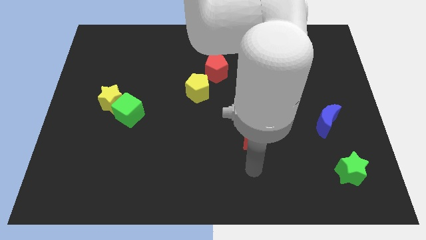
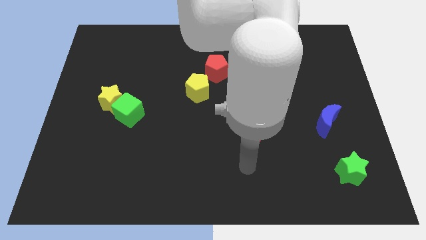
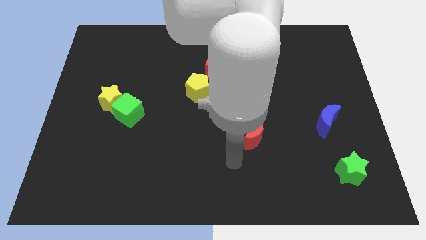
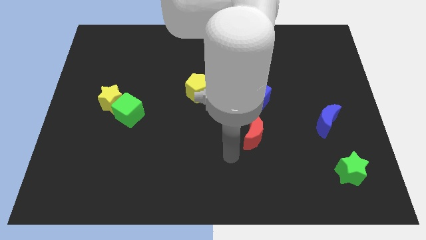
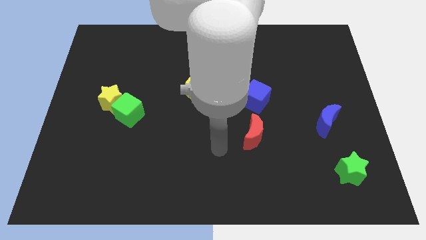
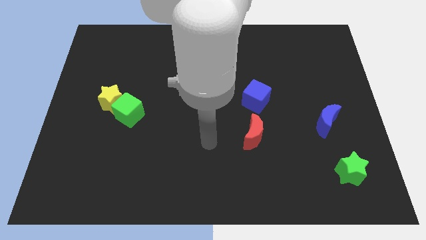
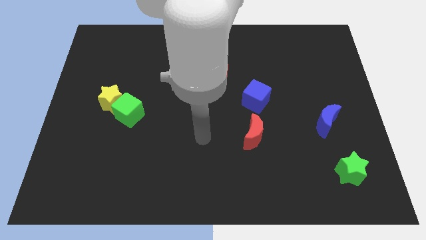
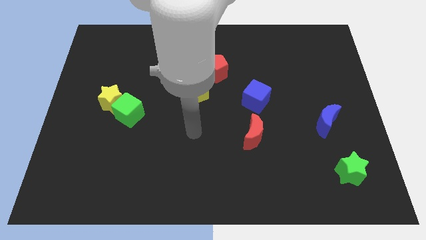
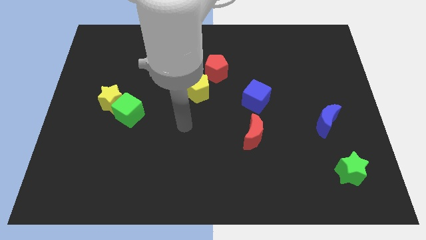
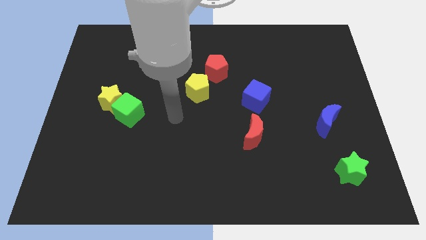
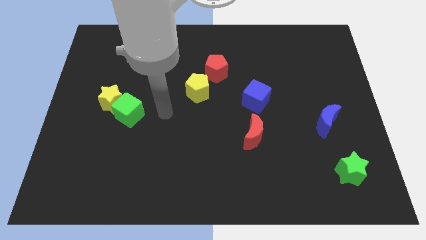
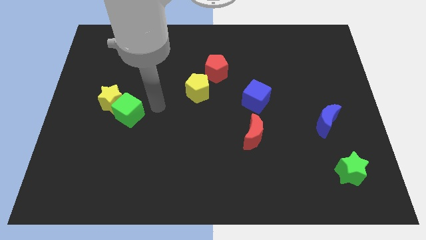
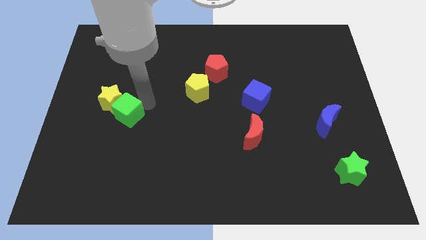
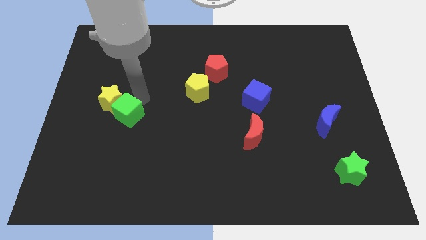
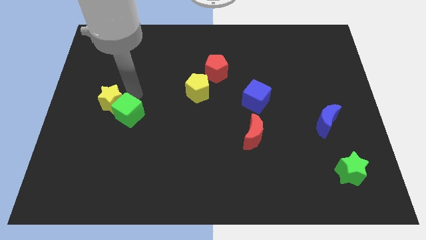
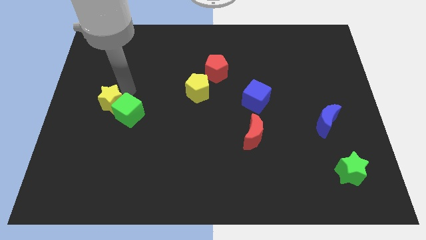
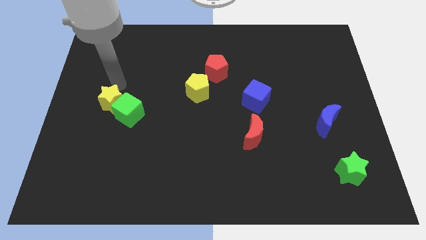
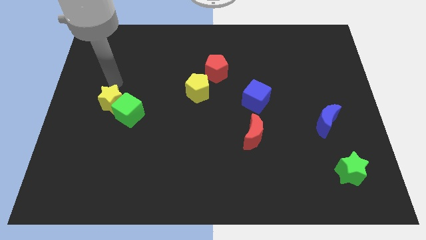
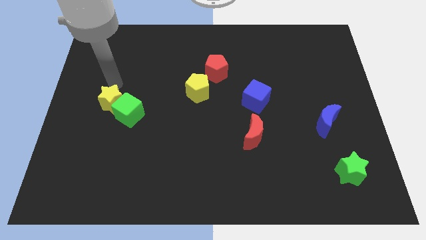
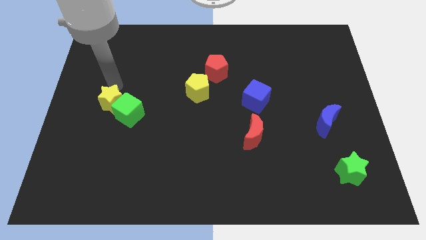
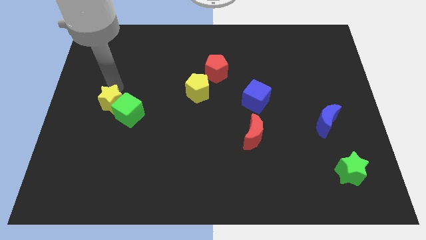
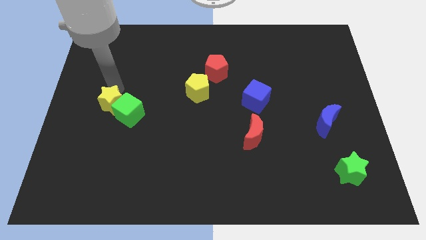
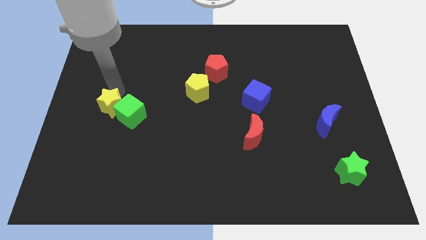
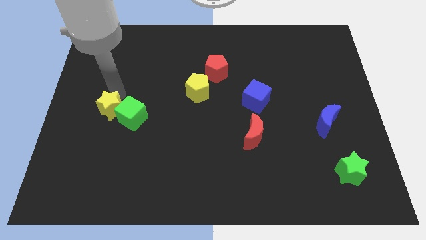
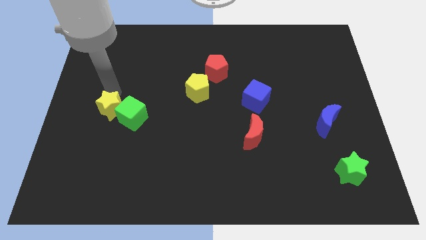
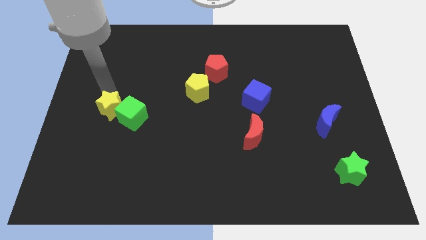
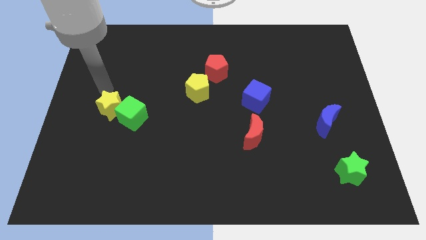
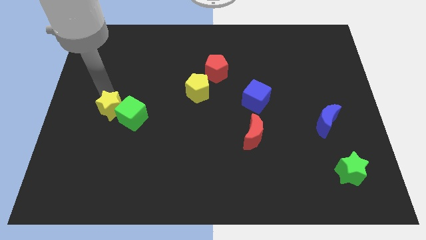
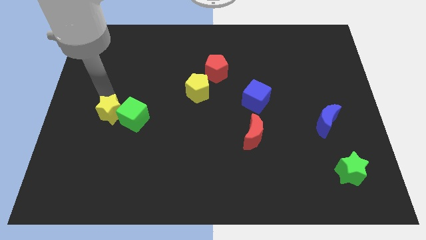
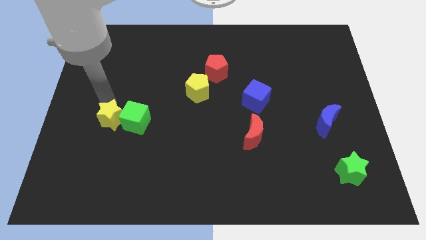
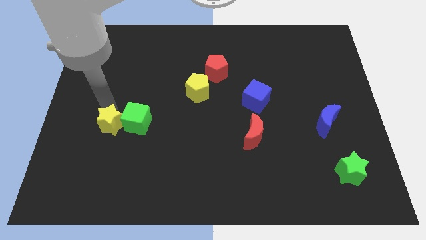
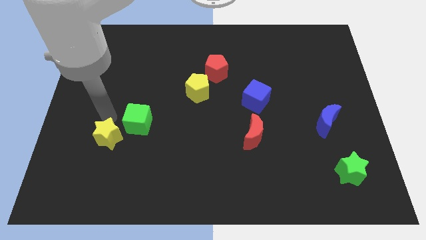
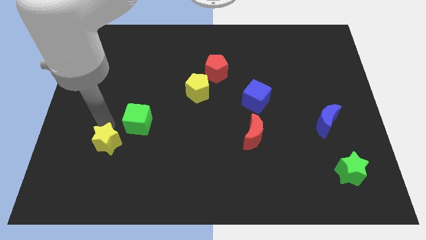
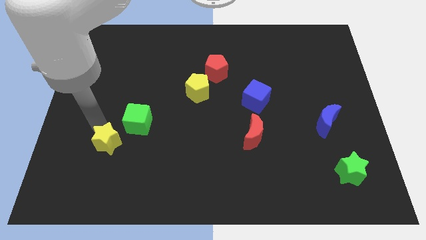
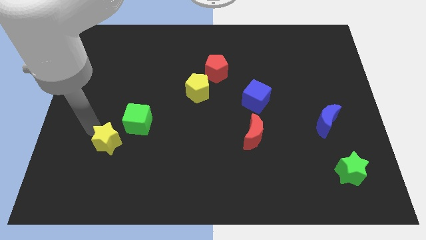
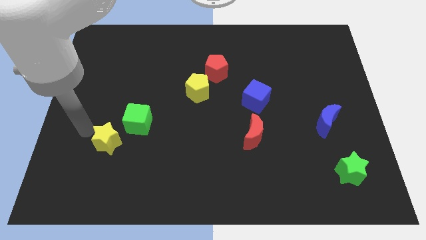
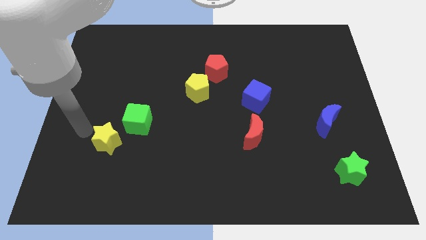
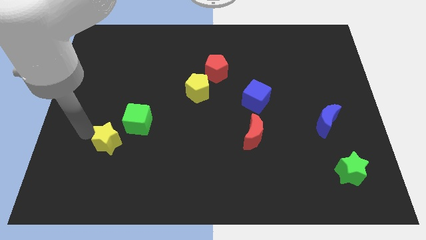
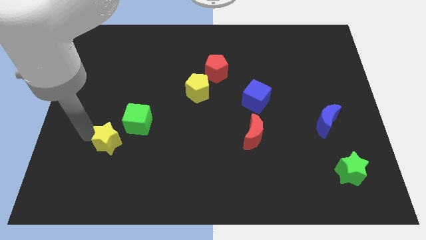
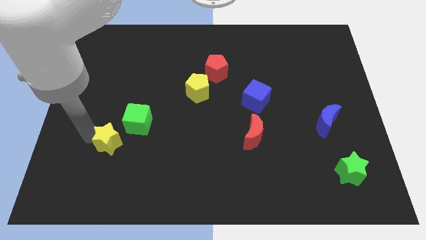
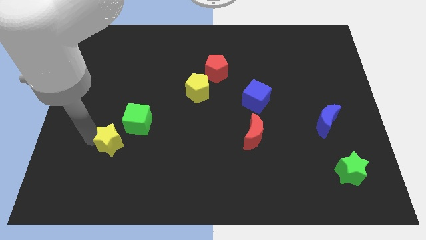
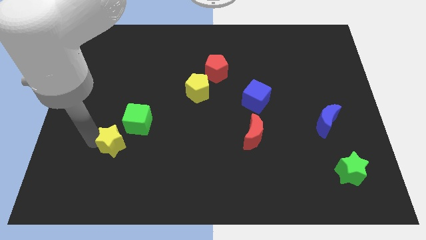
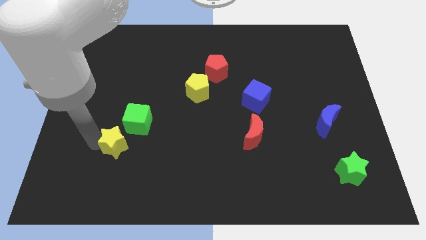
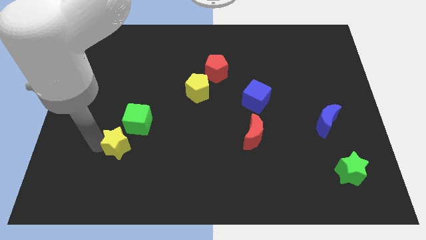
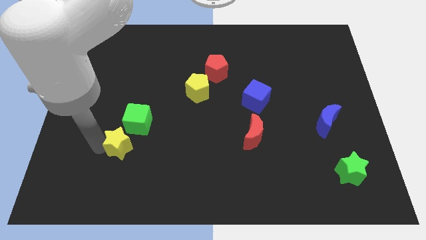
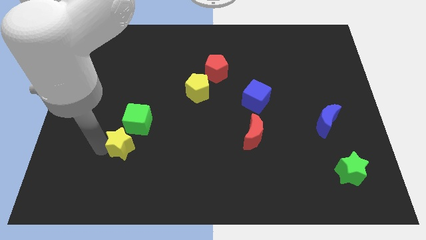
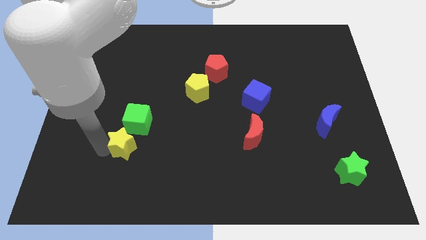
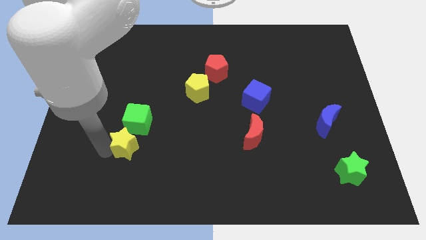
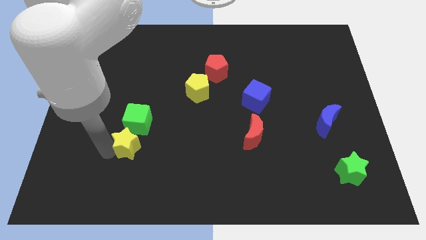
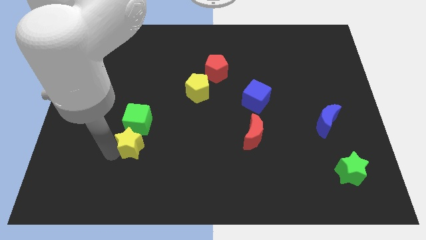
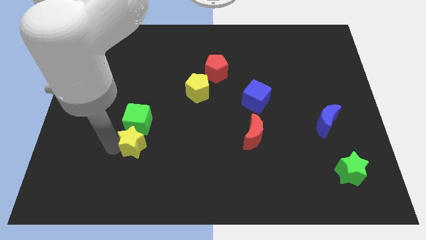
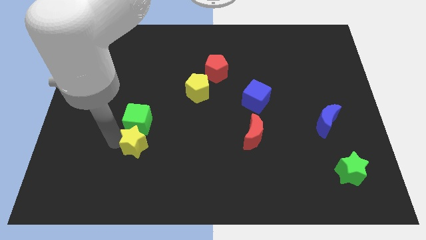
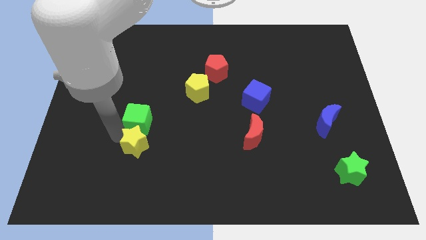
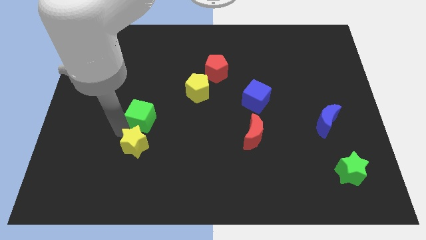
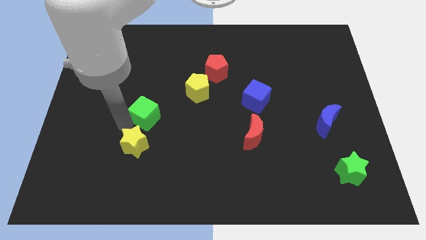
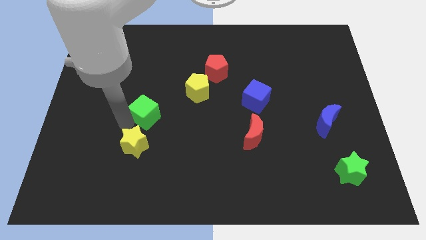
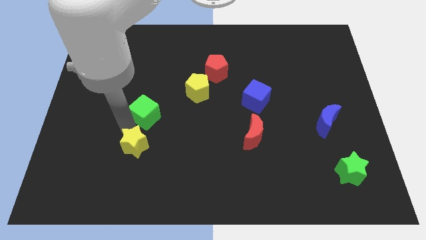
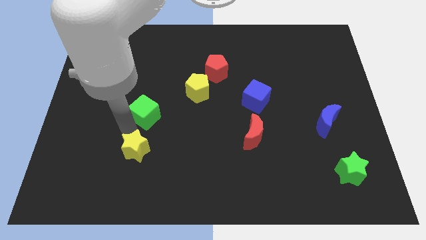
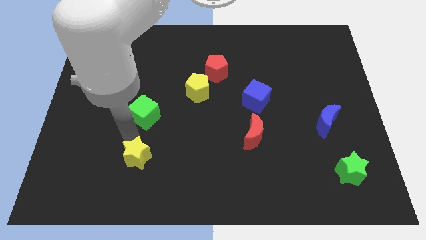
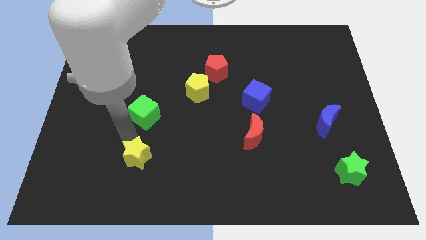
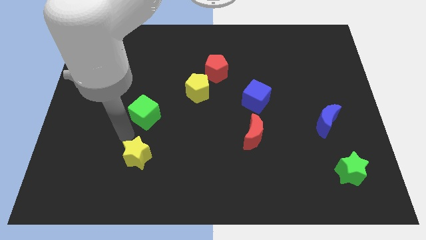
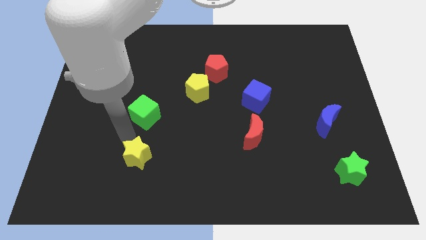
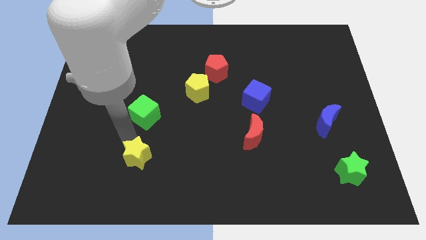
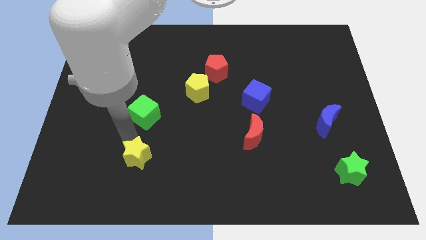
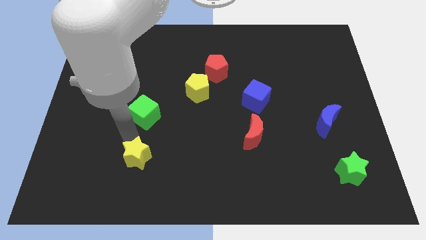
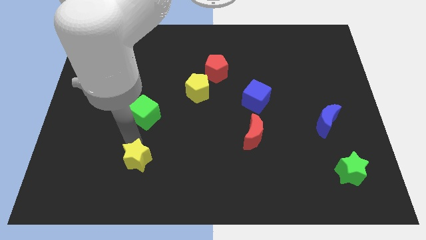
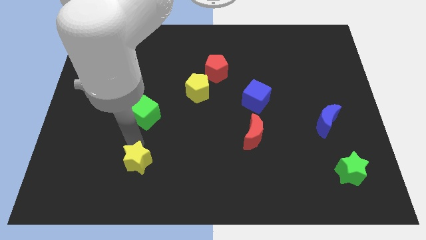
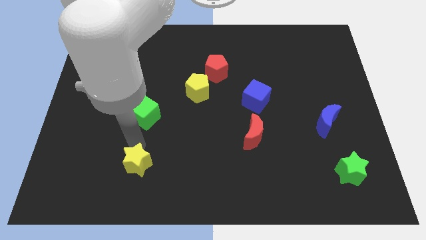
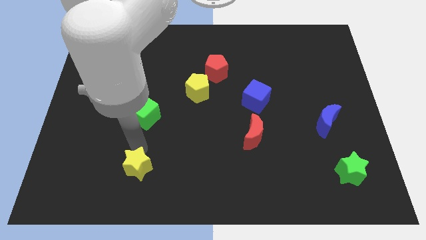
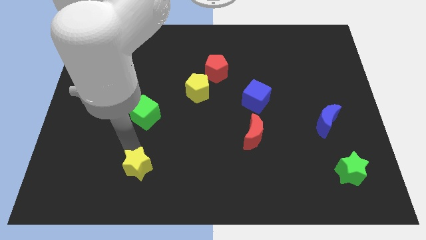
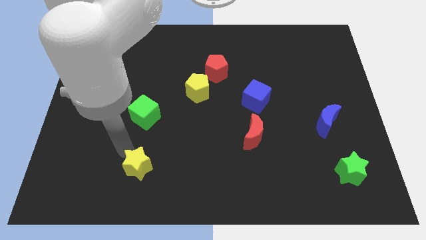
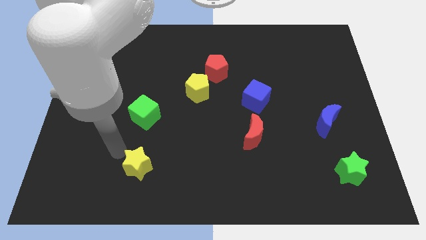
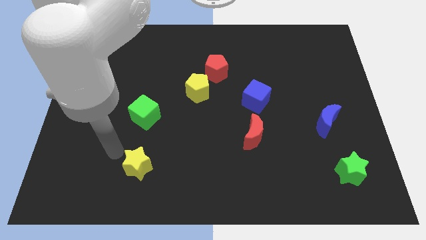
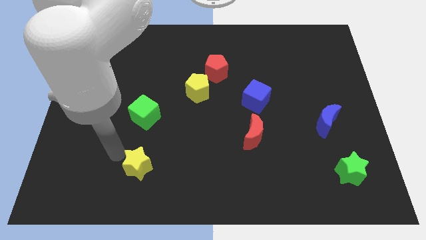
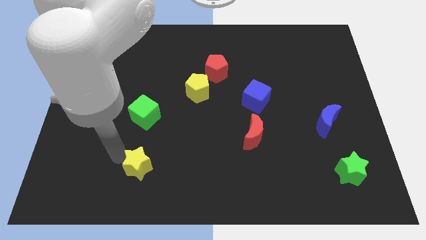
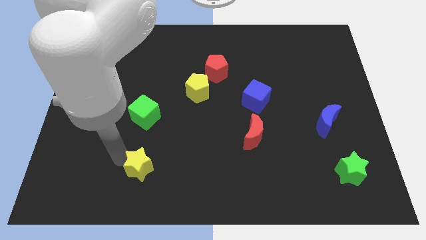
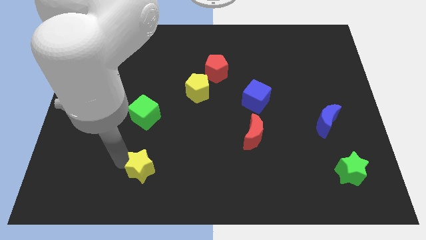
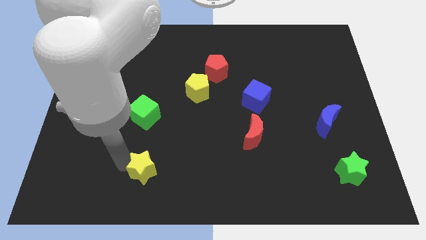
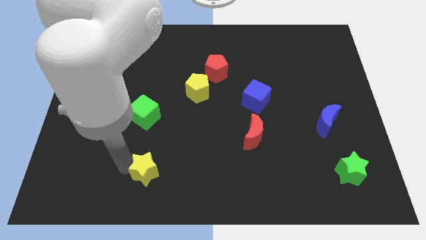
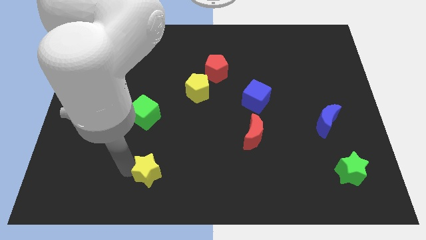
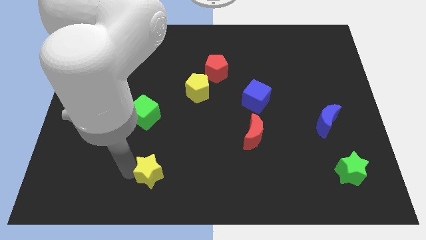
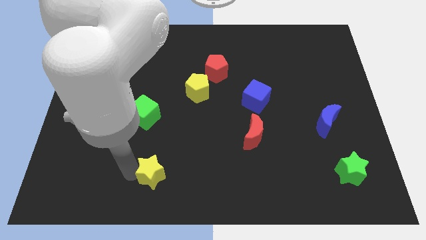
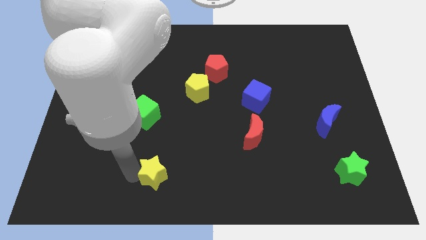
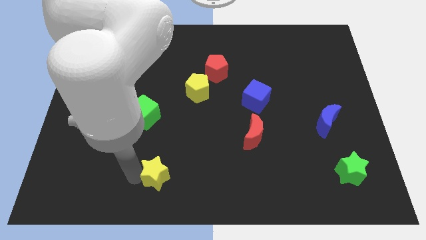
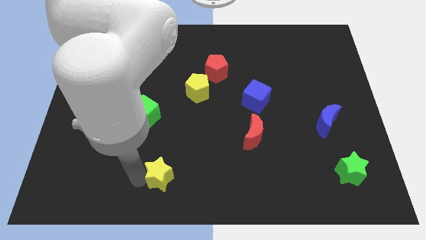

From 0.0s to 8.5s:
push the yellow star to the bottom side
